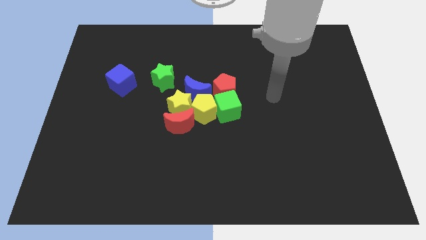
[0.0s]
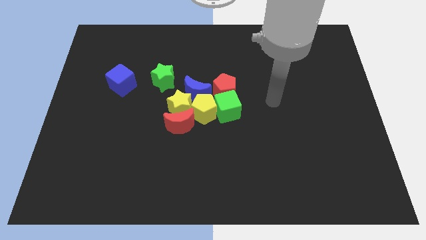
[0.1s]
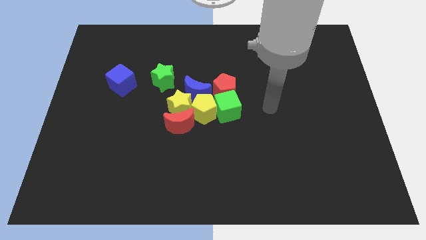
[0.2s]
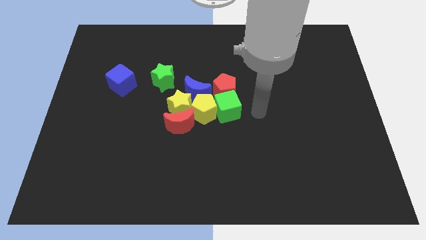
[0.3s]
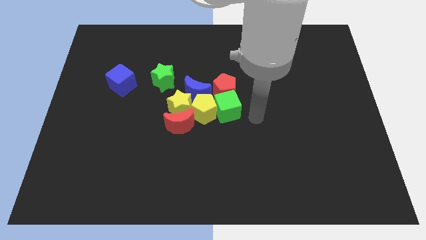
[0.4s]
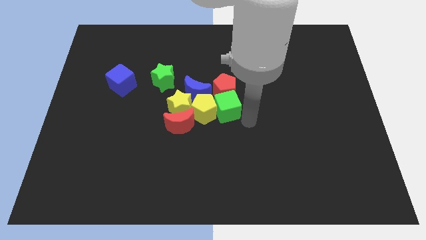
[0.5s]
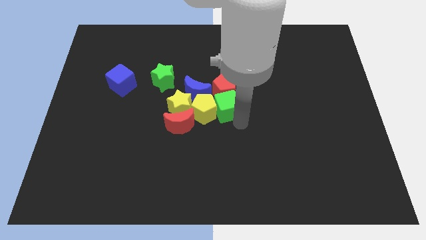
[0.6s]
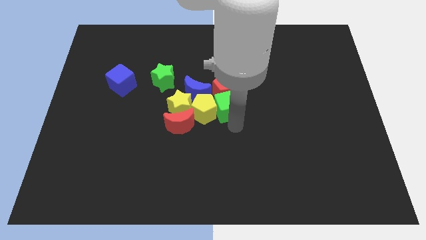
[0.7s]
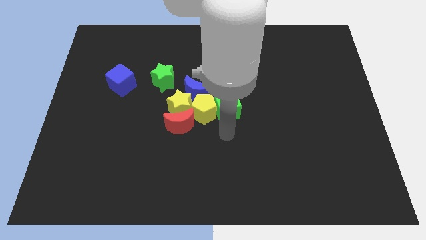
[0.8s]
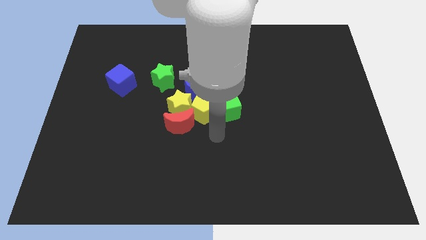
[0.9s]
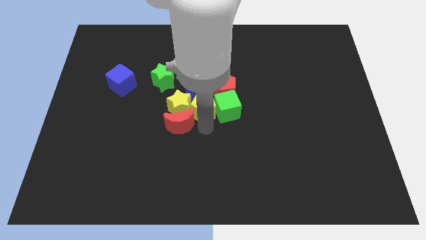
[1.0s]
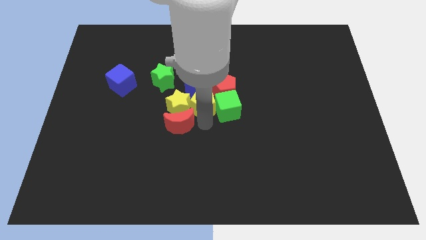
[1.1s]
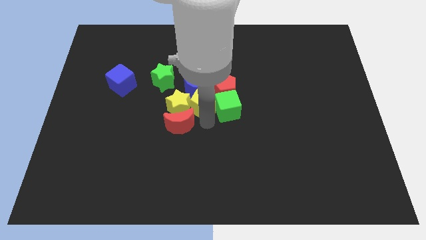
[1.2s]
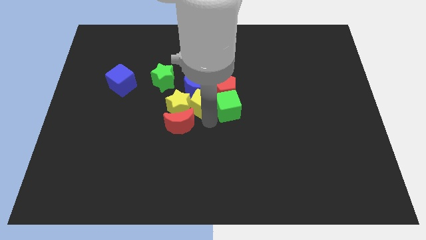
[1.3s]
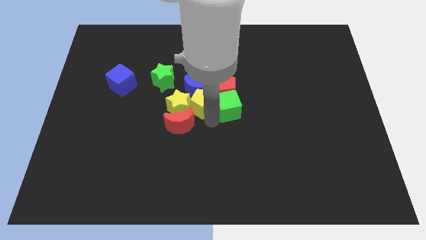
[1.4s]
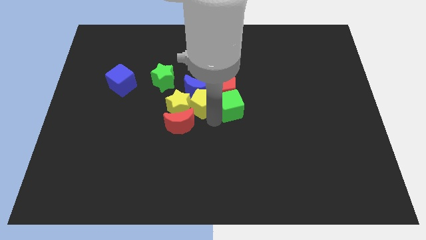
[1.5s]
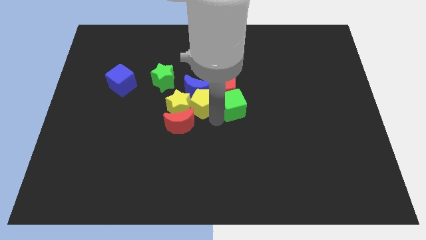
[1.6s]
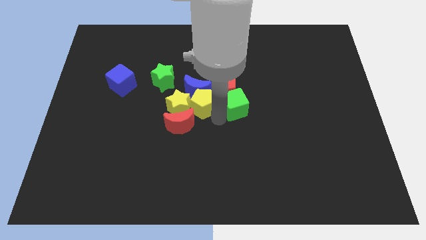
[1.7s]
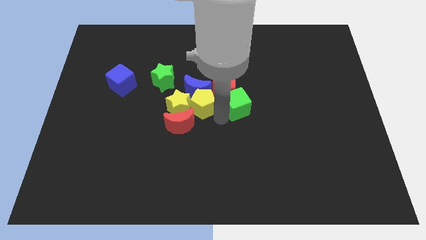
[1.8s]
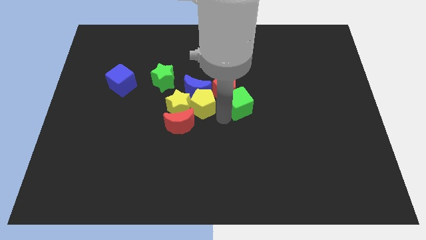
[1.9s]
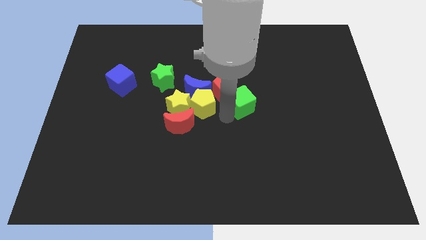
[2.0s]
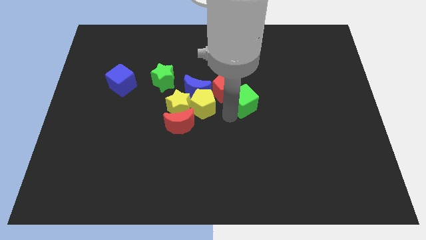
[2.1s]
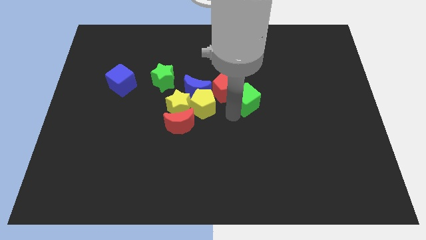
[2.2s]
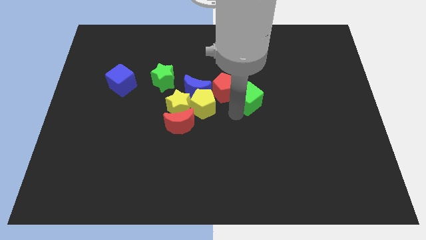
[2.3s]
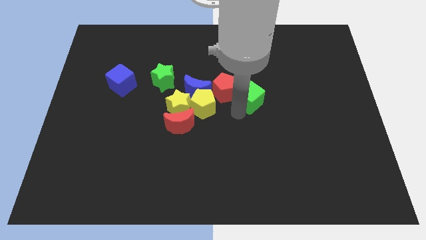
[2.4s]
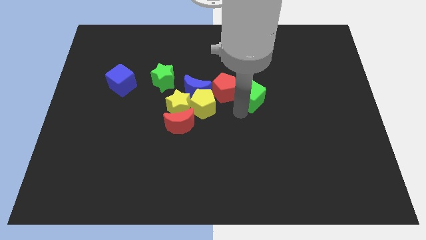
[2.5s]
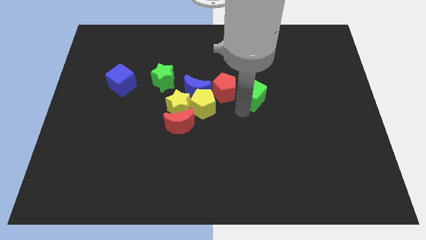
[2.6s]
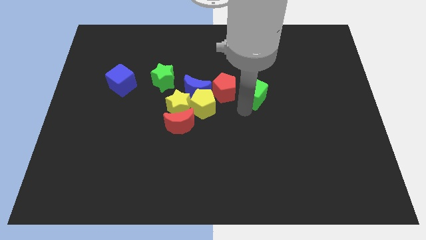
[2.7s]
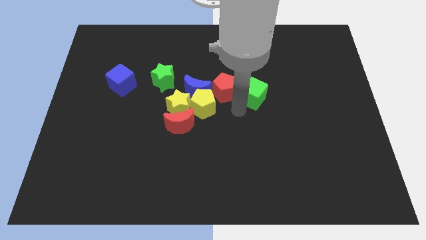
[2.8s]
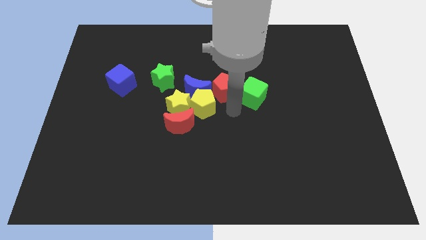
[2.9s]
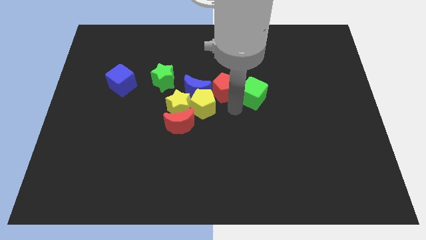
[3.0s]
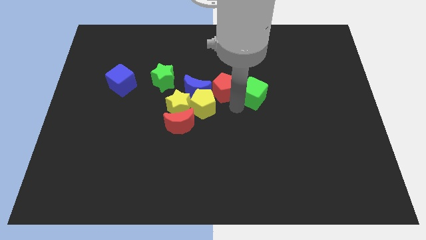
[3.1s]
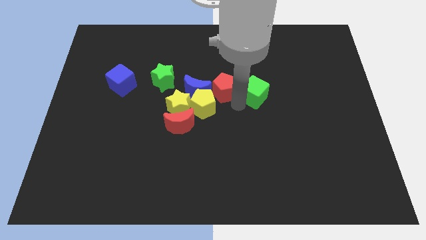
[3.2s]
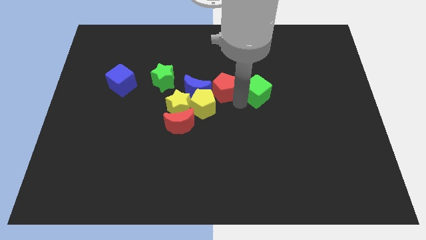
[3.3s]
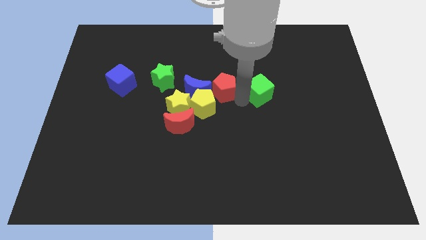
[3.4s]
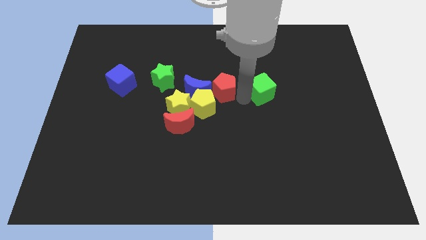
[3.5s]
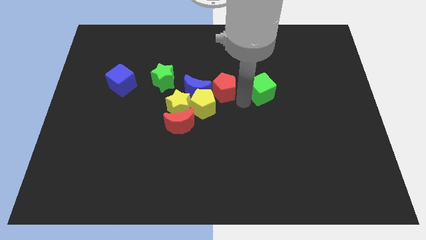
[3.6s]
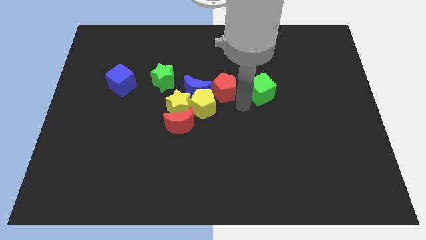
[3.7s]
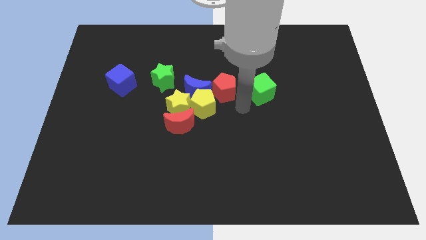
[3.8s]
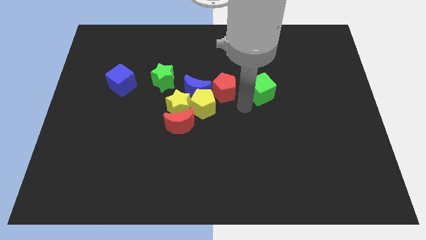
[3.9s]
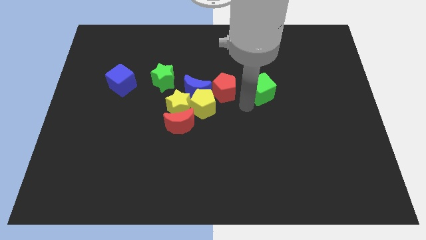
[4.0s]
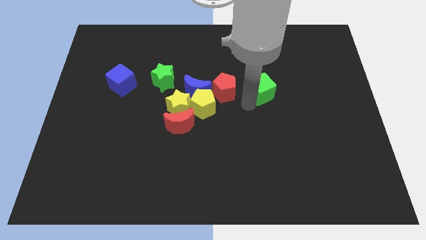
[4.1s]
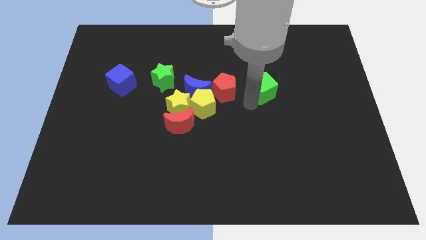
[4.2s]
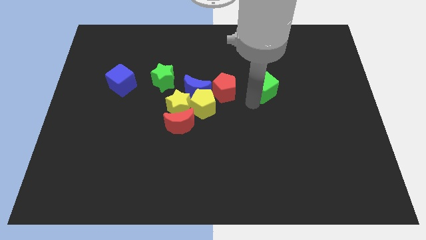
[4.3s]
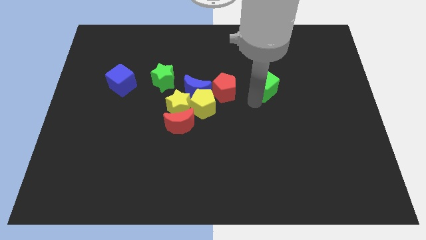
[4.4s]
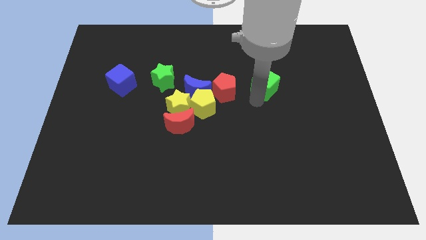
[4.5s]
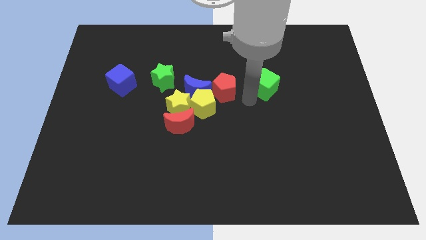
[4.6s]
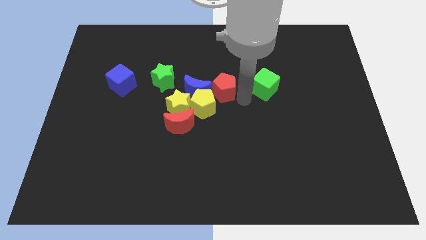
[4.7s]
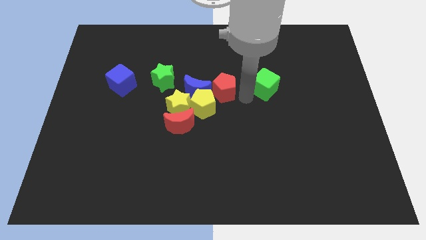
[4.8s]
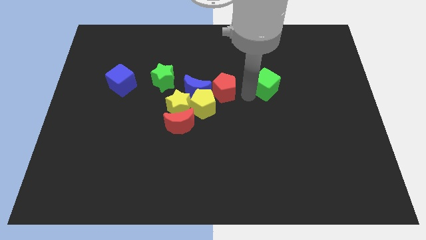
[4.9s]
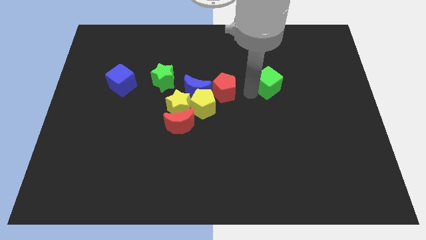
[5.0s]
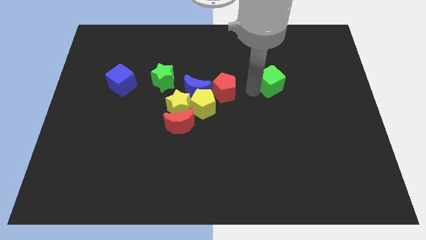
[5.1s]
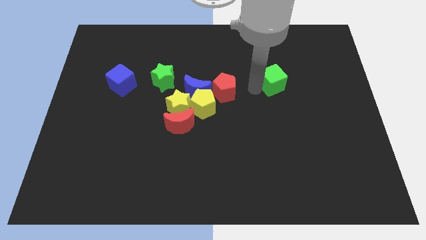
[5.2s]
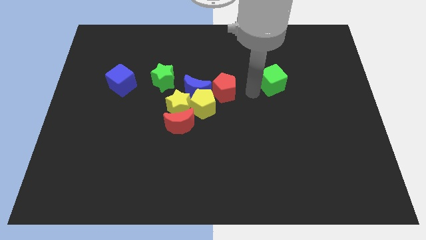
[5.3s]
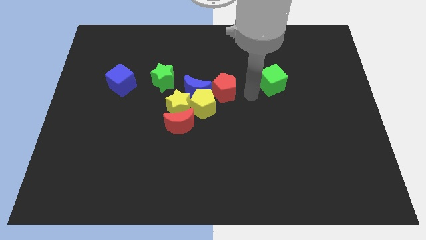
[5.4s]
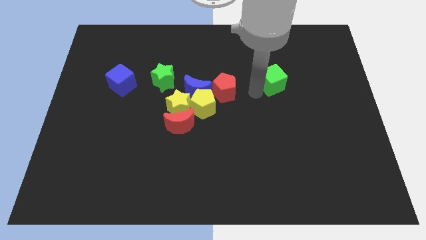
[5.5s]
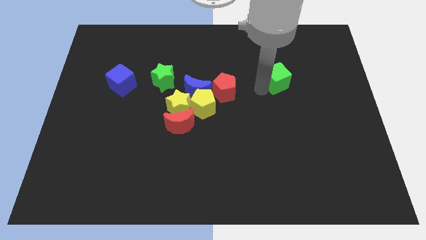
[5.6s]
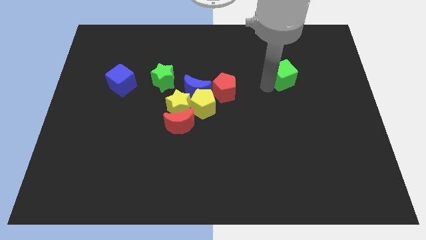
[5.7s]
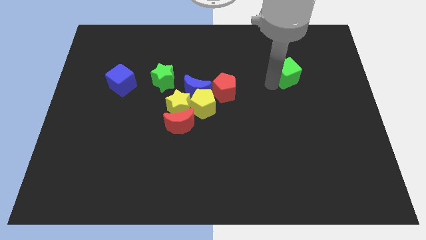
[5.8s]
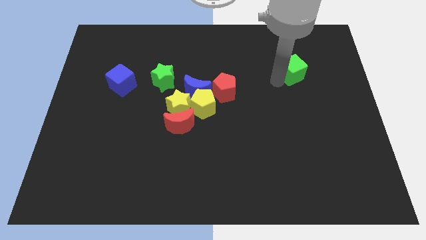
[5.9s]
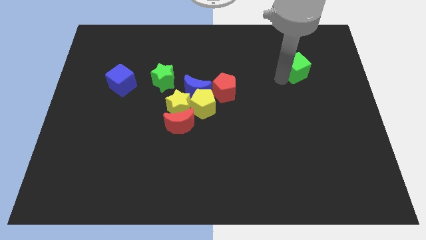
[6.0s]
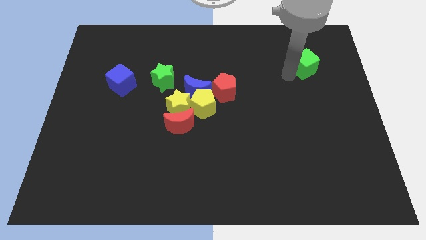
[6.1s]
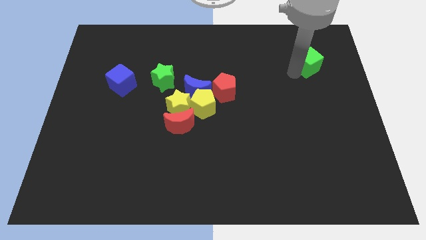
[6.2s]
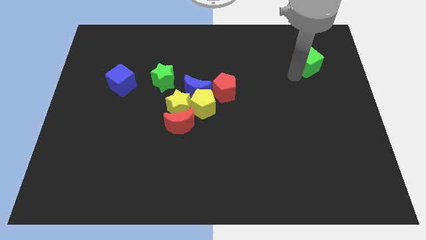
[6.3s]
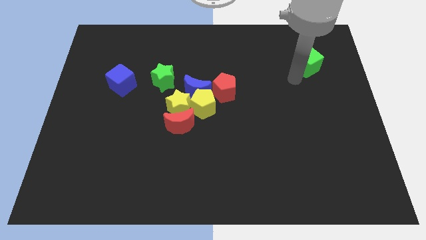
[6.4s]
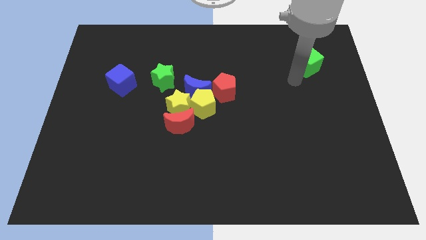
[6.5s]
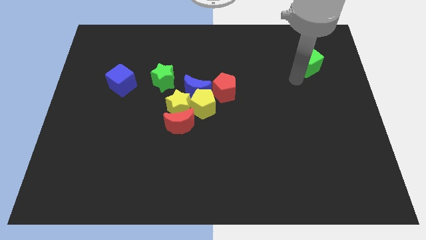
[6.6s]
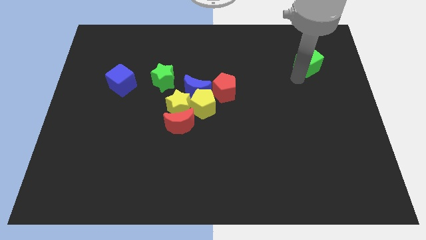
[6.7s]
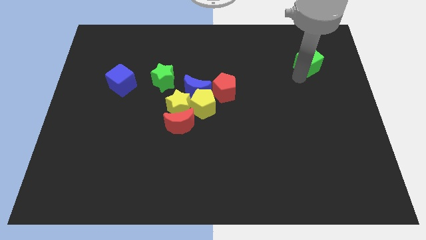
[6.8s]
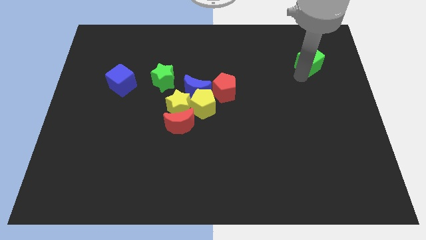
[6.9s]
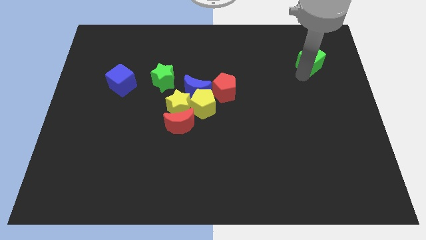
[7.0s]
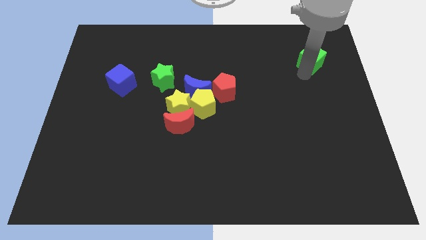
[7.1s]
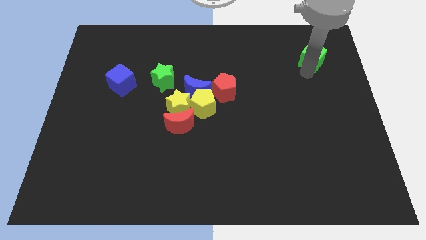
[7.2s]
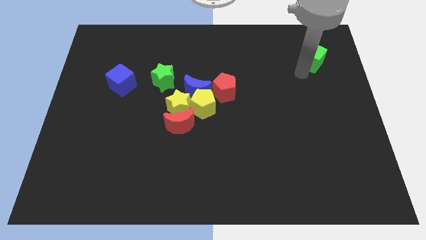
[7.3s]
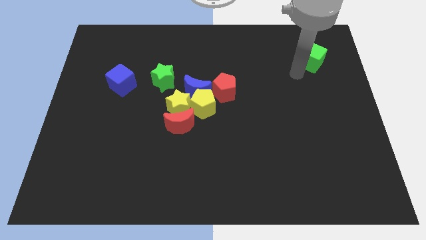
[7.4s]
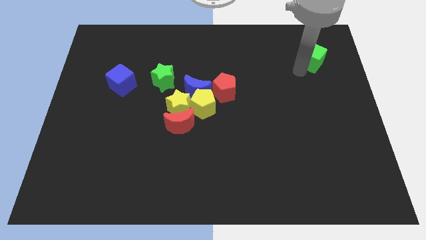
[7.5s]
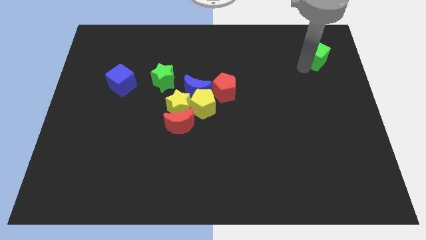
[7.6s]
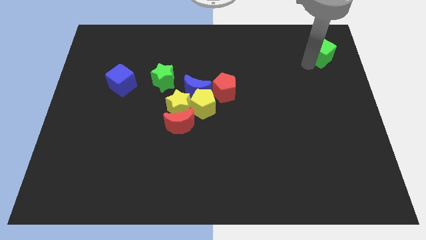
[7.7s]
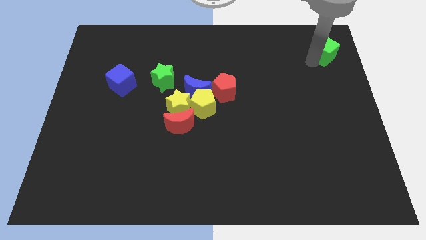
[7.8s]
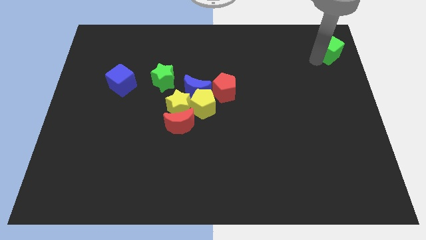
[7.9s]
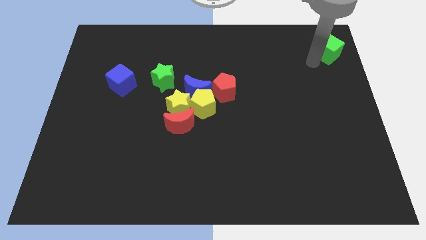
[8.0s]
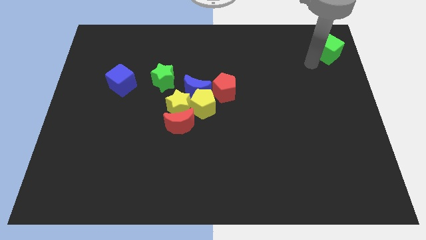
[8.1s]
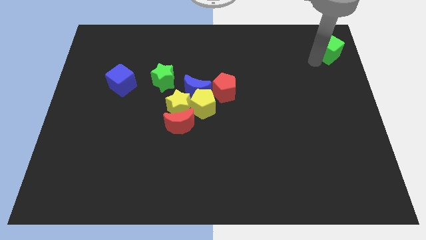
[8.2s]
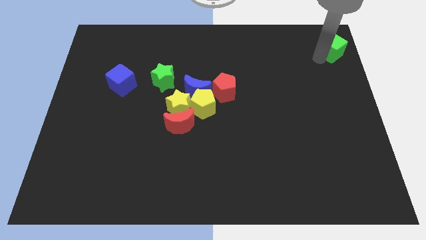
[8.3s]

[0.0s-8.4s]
put the green cube to the upper right corner

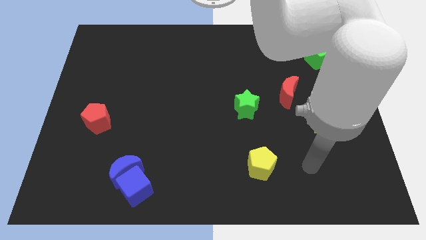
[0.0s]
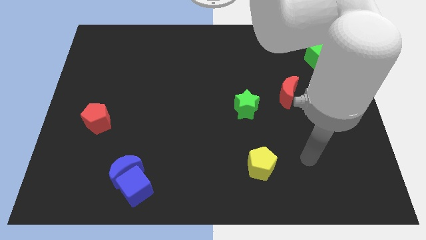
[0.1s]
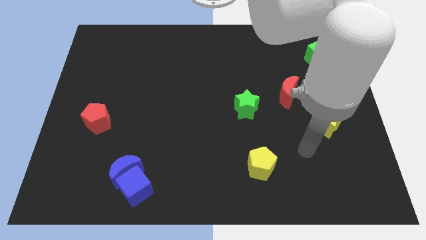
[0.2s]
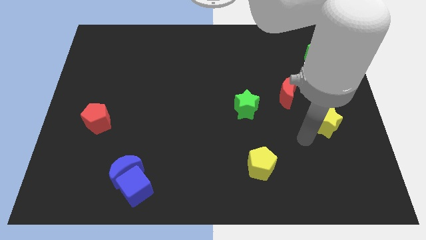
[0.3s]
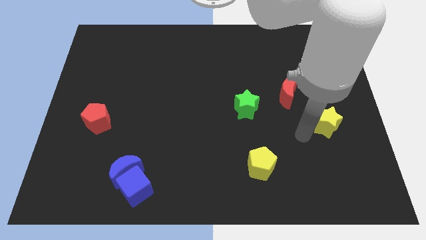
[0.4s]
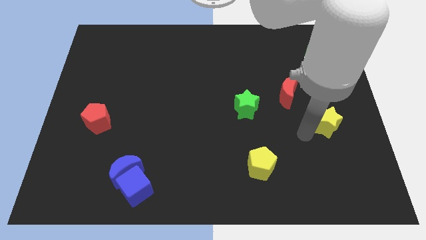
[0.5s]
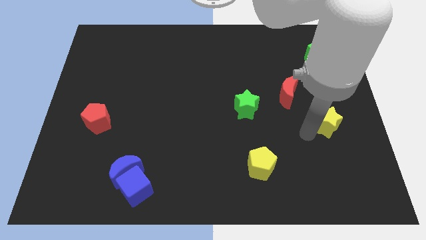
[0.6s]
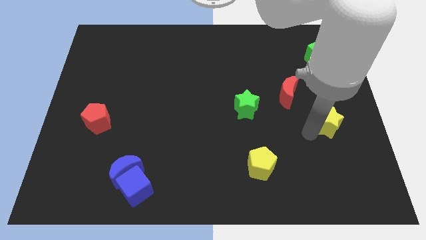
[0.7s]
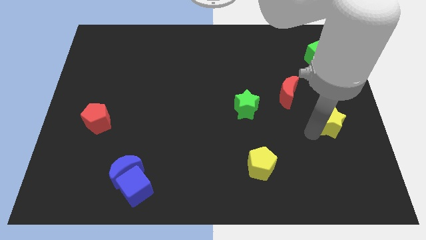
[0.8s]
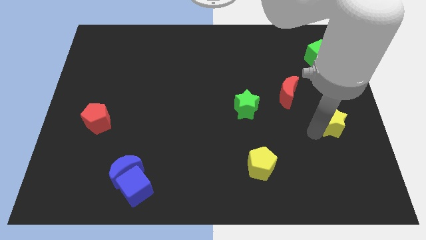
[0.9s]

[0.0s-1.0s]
push the yellow star to the right side of the board
